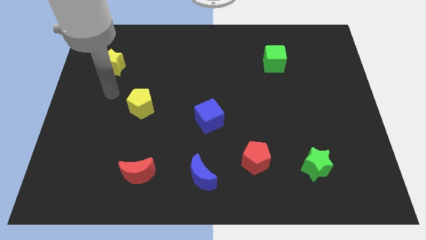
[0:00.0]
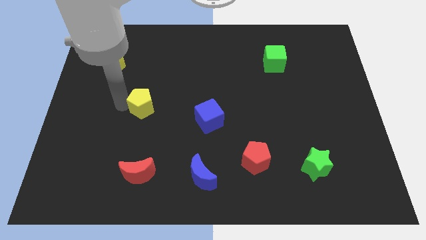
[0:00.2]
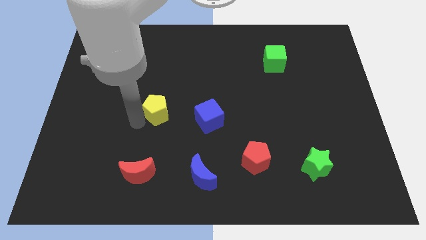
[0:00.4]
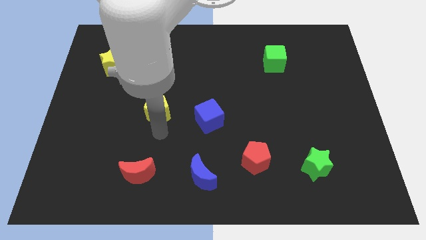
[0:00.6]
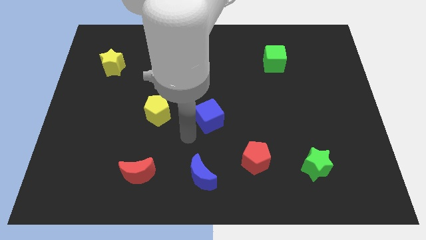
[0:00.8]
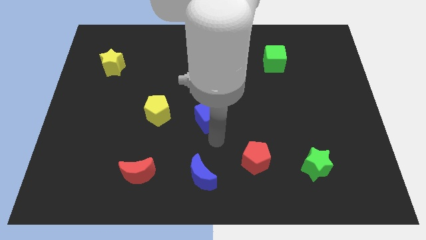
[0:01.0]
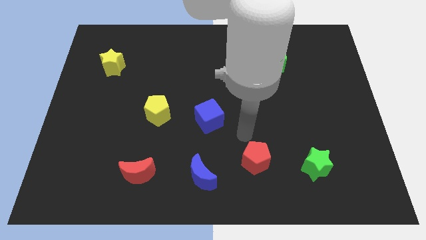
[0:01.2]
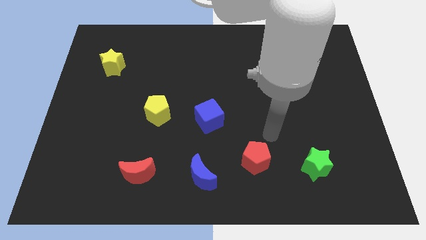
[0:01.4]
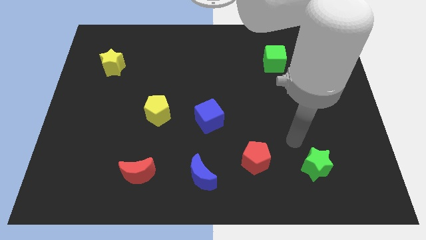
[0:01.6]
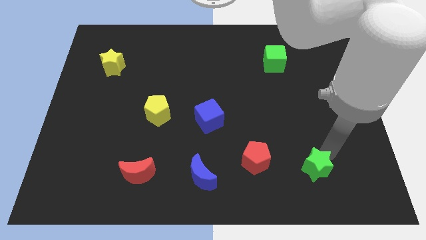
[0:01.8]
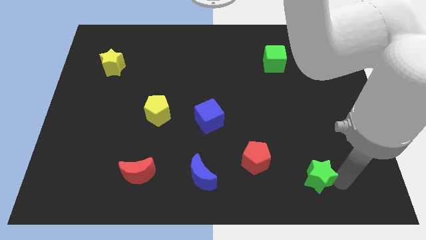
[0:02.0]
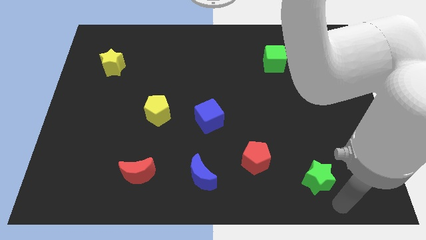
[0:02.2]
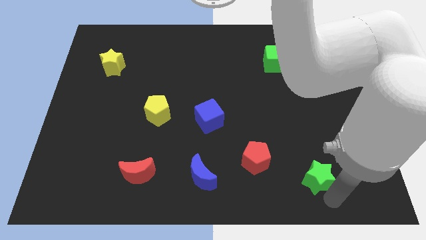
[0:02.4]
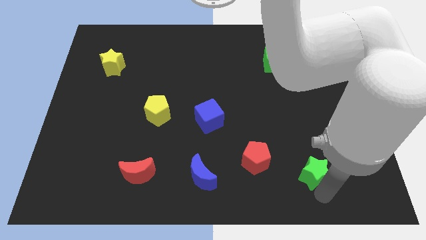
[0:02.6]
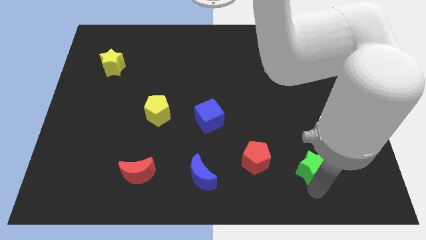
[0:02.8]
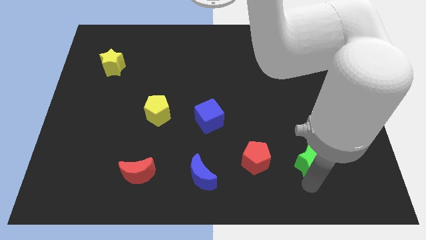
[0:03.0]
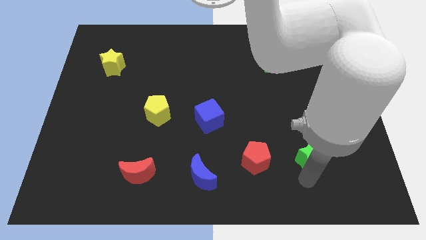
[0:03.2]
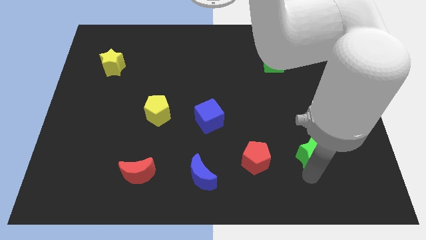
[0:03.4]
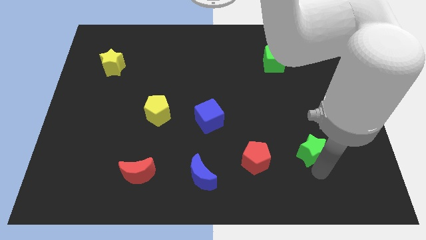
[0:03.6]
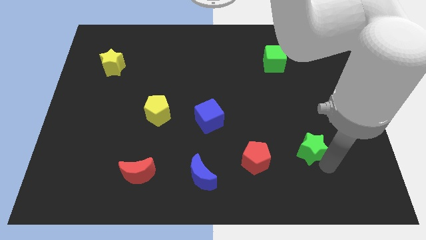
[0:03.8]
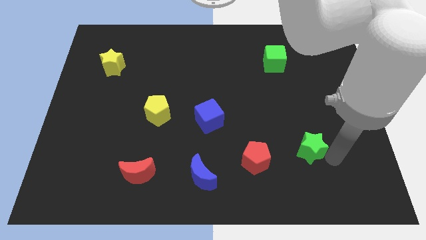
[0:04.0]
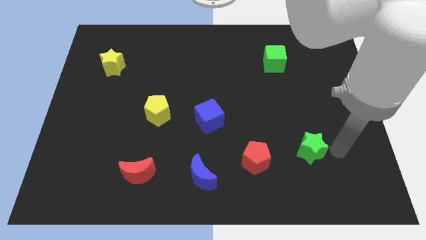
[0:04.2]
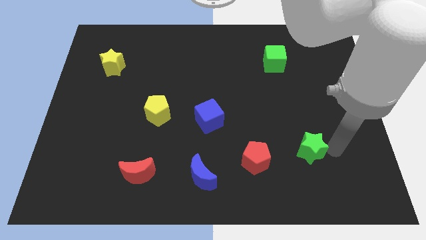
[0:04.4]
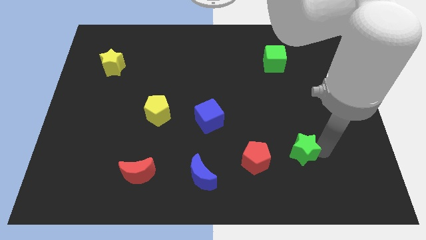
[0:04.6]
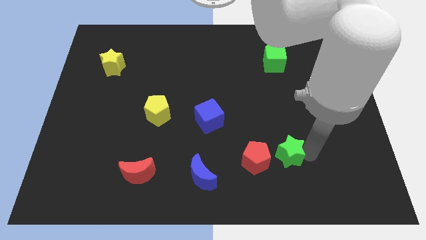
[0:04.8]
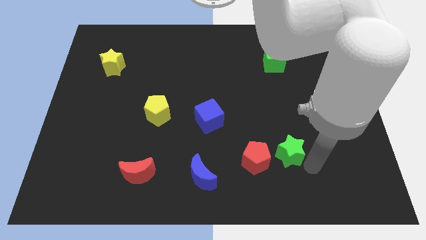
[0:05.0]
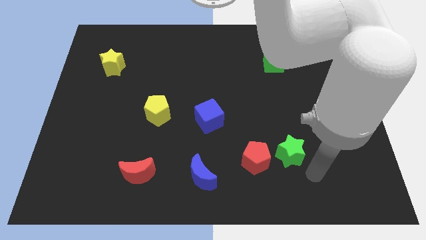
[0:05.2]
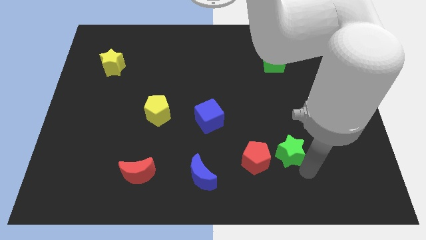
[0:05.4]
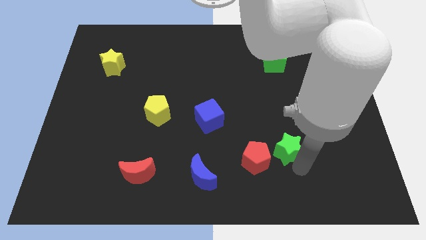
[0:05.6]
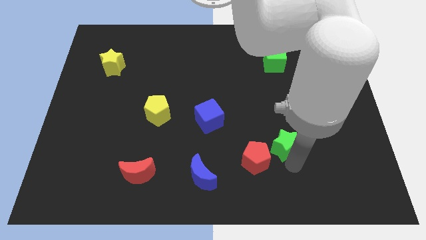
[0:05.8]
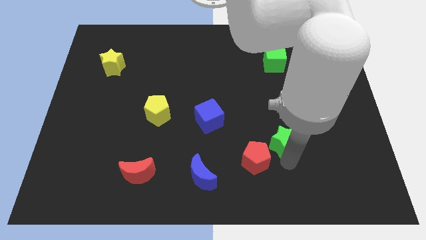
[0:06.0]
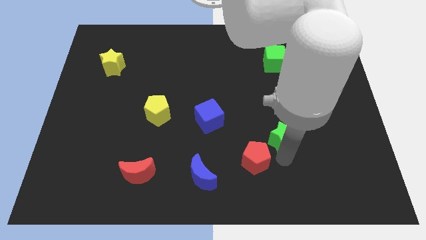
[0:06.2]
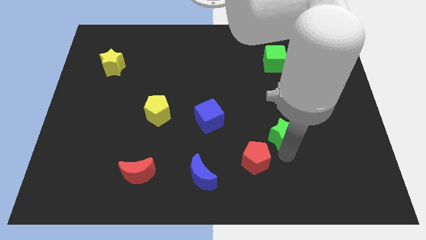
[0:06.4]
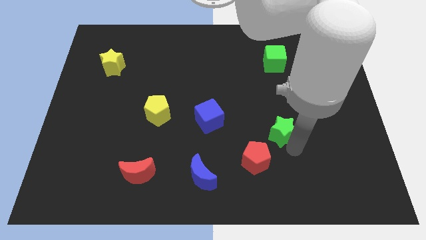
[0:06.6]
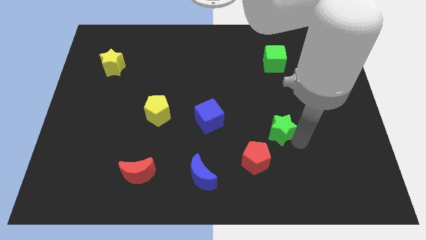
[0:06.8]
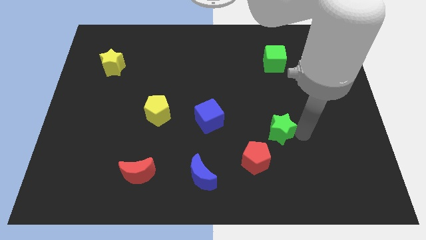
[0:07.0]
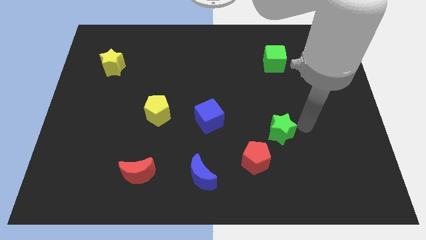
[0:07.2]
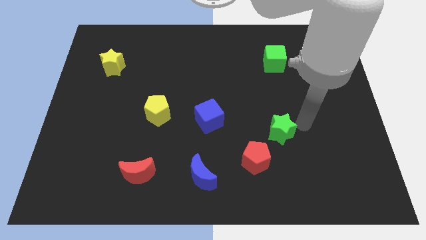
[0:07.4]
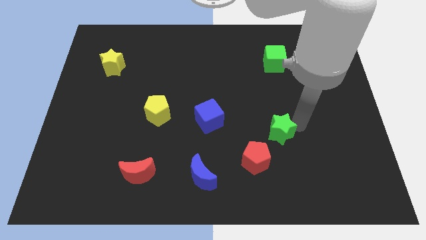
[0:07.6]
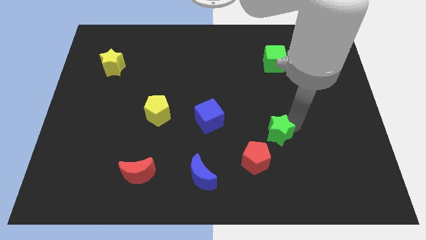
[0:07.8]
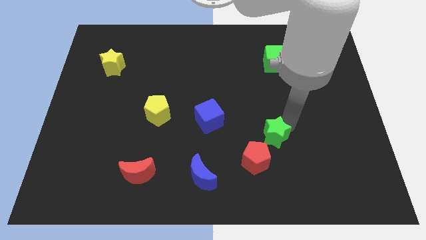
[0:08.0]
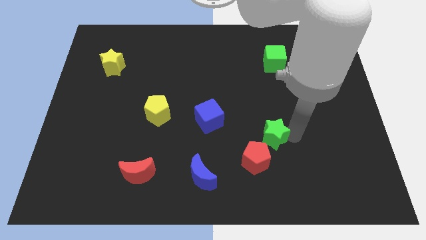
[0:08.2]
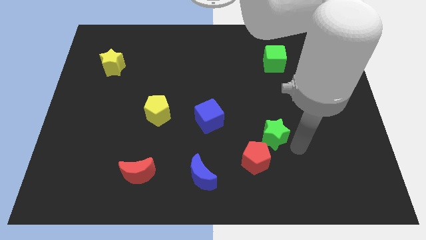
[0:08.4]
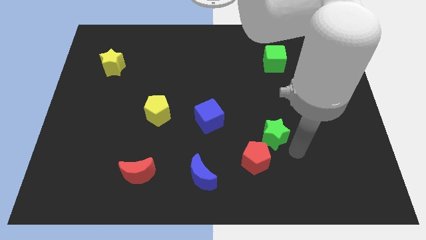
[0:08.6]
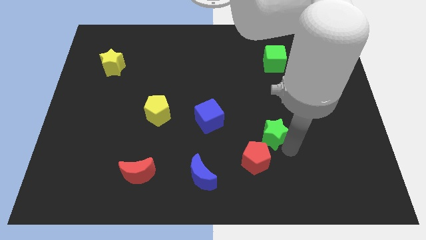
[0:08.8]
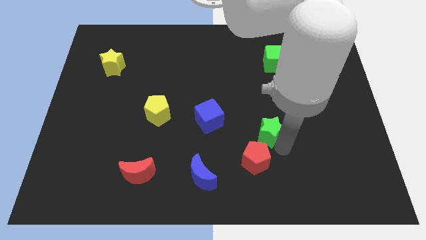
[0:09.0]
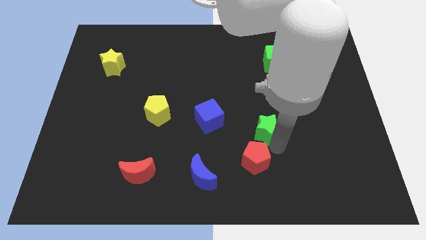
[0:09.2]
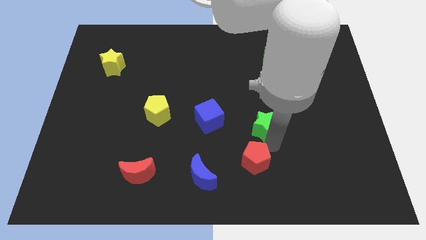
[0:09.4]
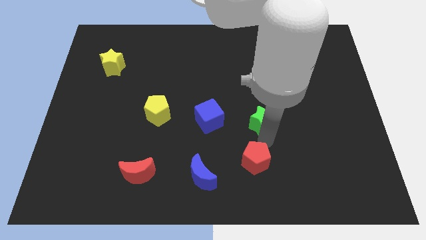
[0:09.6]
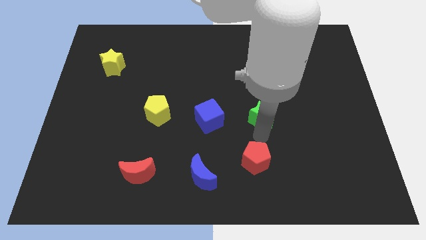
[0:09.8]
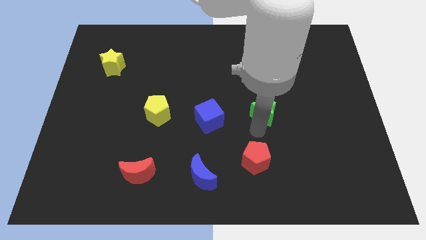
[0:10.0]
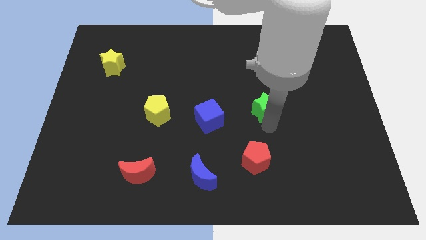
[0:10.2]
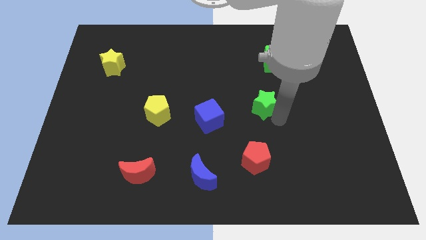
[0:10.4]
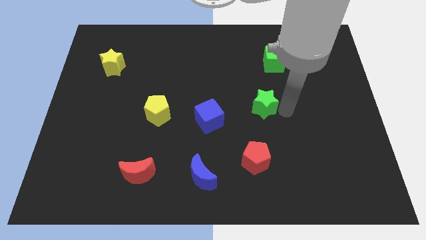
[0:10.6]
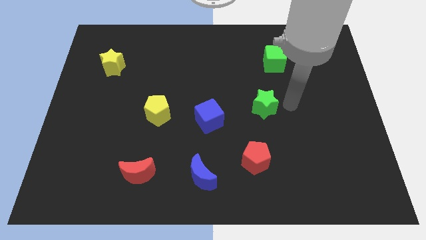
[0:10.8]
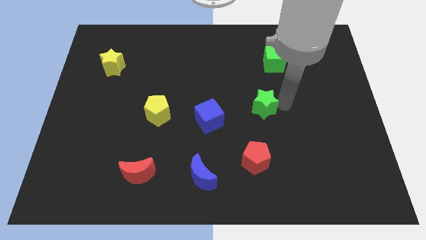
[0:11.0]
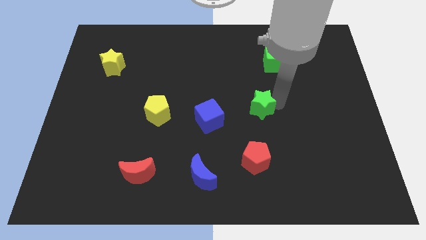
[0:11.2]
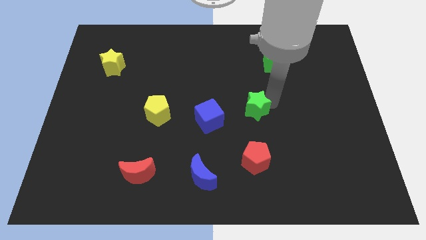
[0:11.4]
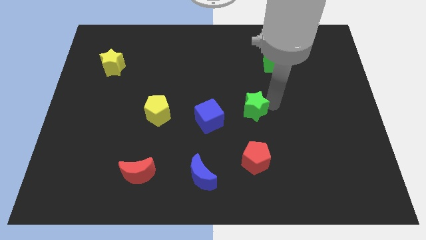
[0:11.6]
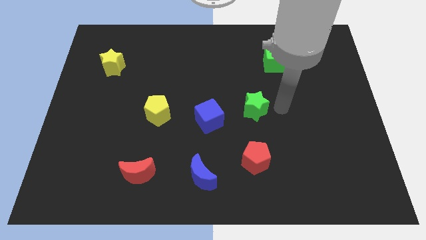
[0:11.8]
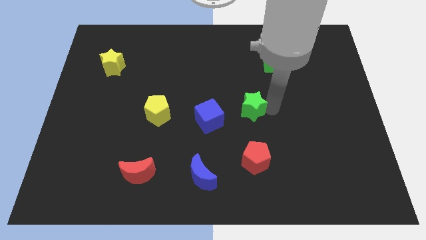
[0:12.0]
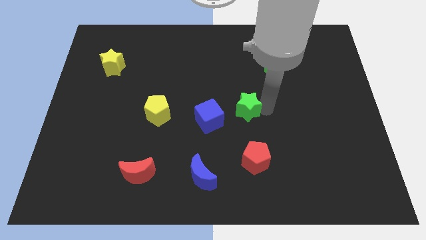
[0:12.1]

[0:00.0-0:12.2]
move the green star upwards and left

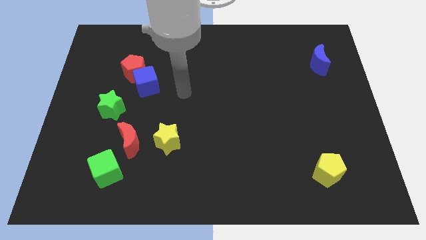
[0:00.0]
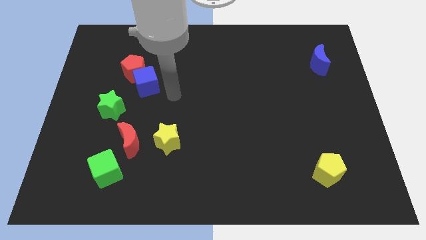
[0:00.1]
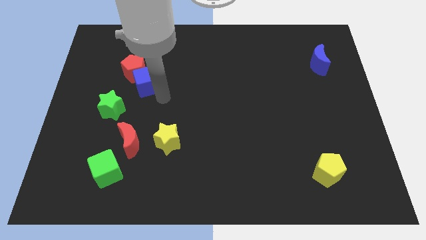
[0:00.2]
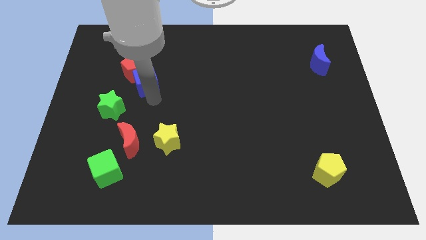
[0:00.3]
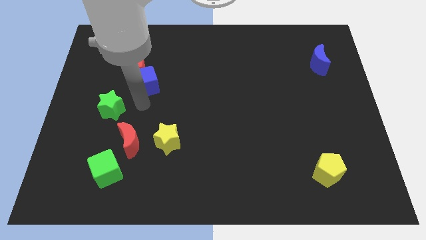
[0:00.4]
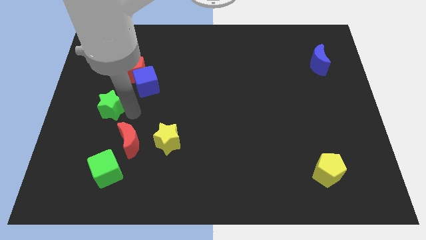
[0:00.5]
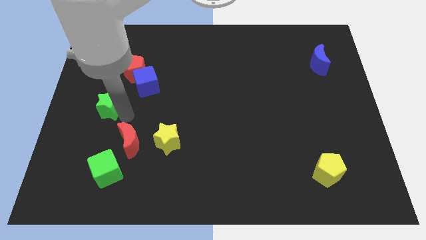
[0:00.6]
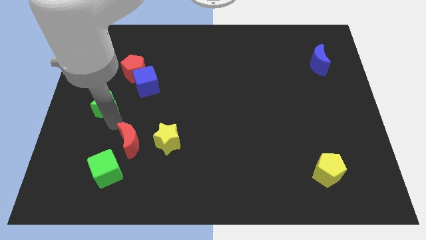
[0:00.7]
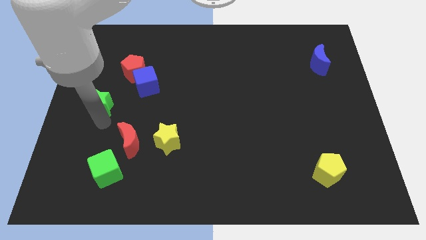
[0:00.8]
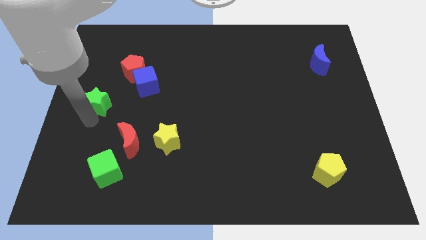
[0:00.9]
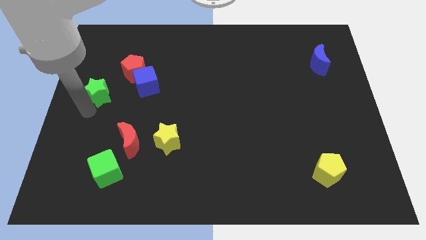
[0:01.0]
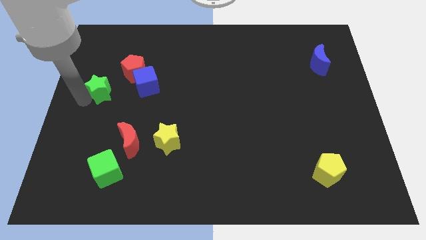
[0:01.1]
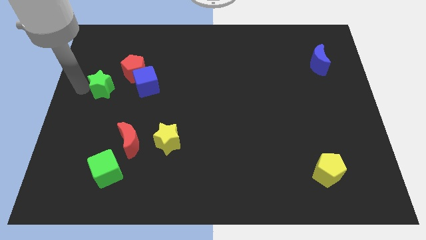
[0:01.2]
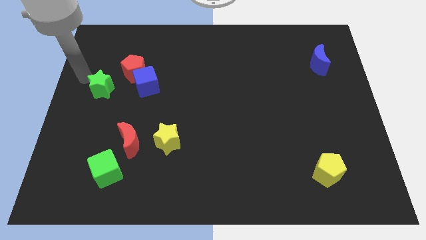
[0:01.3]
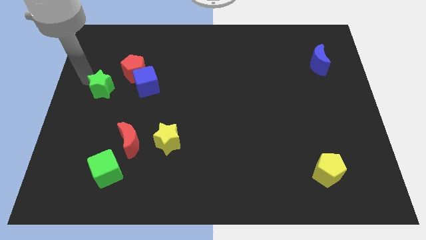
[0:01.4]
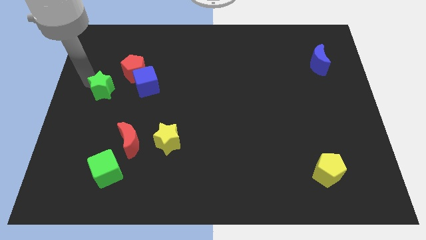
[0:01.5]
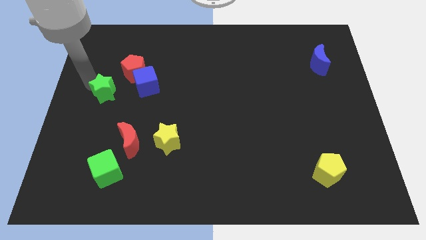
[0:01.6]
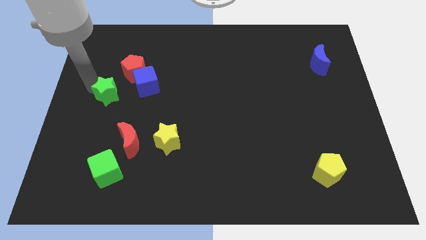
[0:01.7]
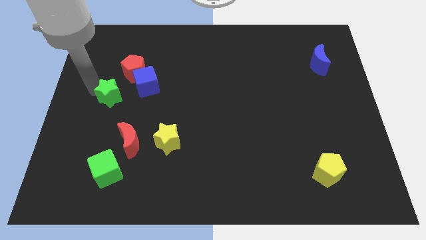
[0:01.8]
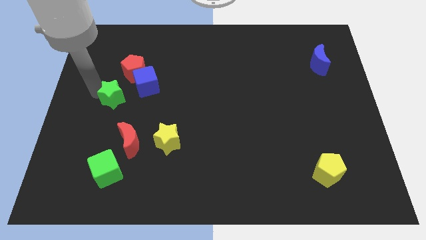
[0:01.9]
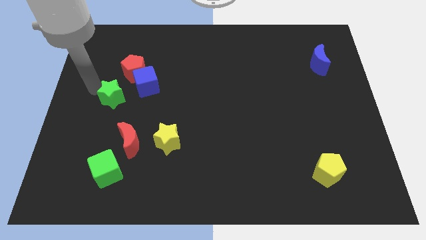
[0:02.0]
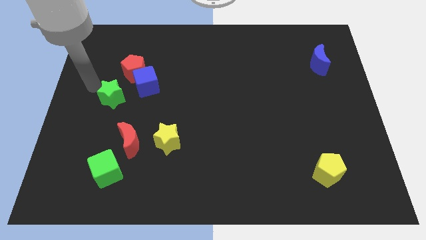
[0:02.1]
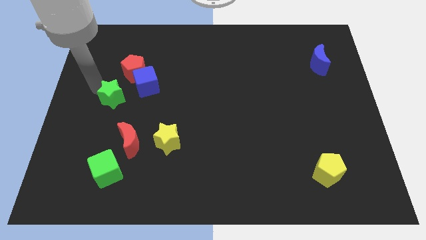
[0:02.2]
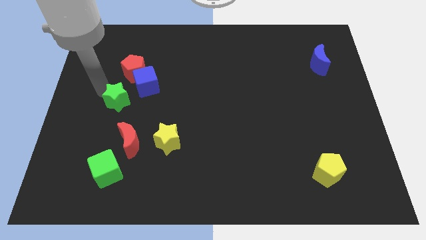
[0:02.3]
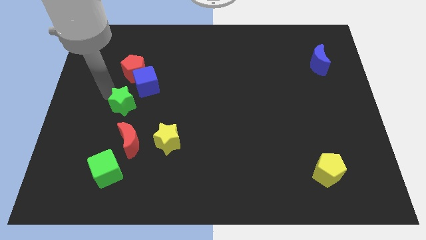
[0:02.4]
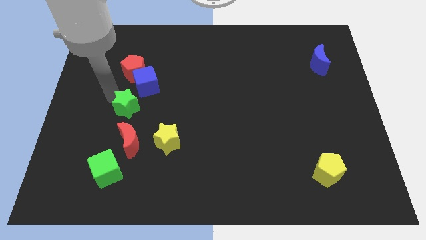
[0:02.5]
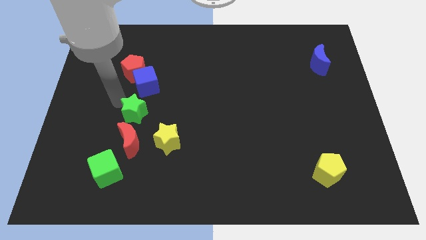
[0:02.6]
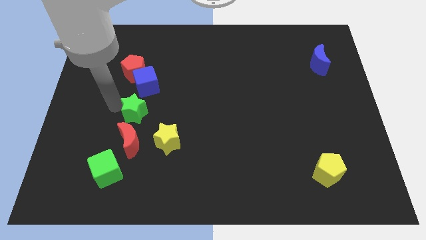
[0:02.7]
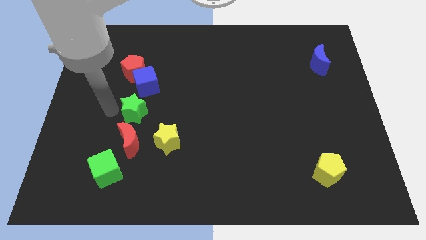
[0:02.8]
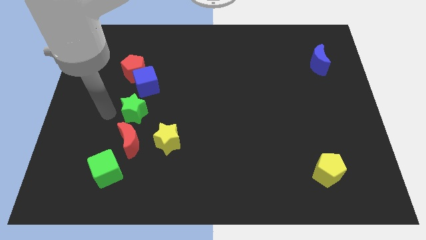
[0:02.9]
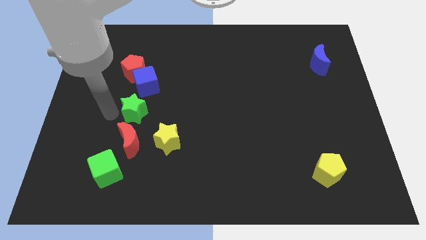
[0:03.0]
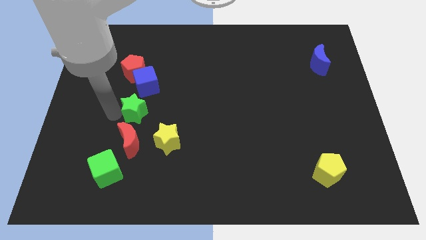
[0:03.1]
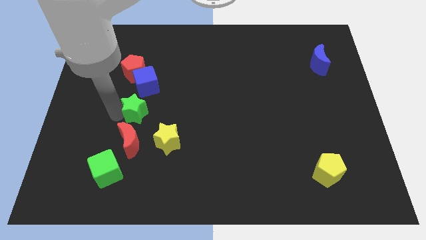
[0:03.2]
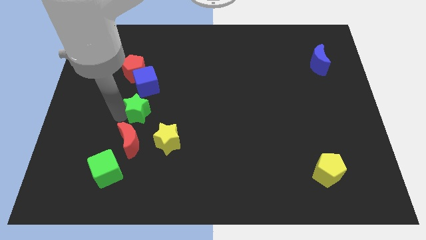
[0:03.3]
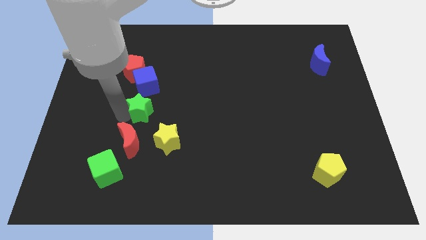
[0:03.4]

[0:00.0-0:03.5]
slide the green star a bit right
